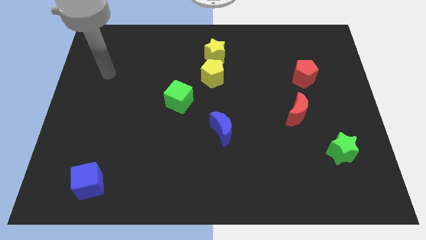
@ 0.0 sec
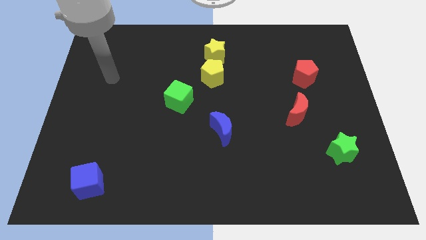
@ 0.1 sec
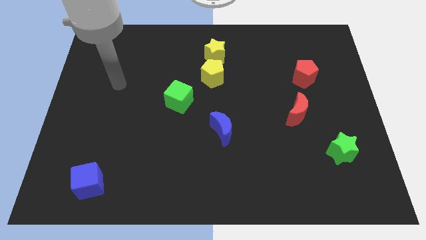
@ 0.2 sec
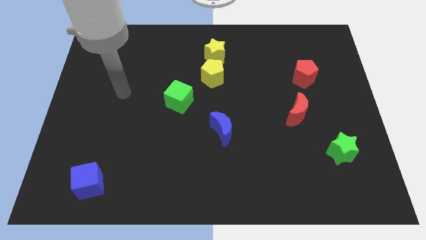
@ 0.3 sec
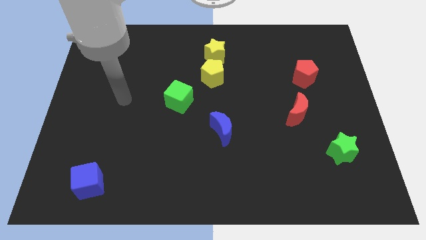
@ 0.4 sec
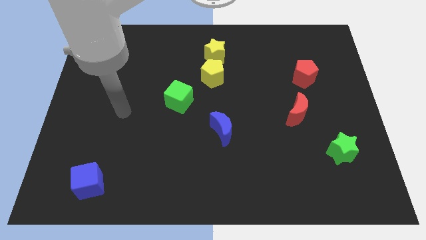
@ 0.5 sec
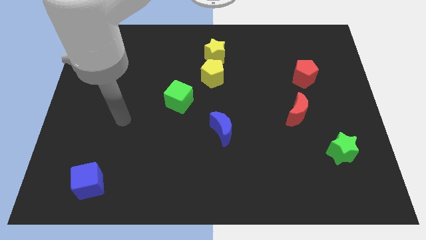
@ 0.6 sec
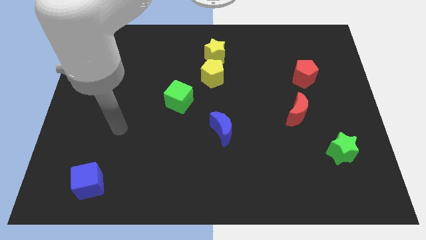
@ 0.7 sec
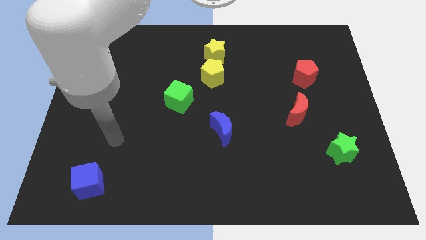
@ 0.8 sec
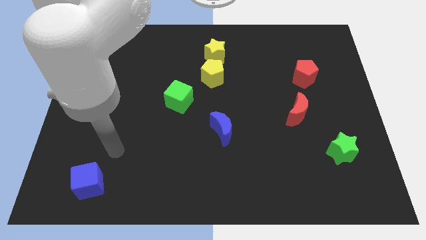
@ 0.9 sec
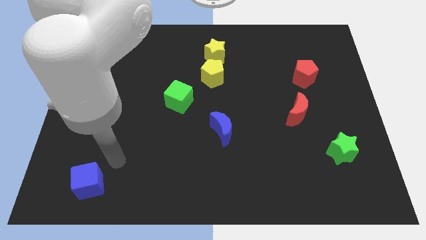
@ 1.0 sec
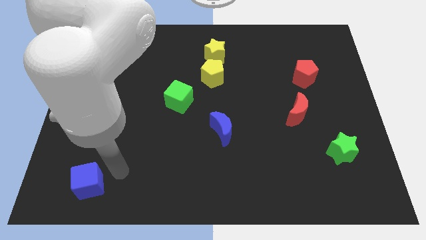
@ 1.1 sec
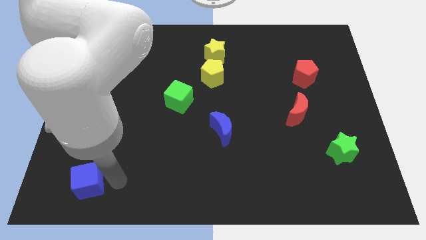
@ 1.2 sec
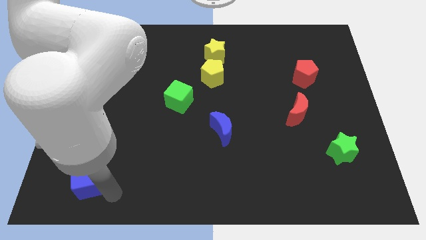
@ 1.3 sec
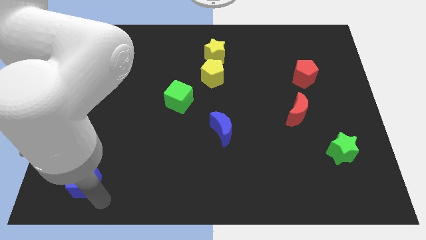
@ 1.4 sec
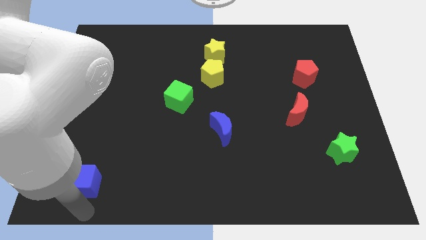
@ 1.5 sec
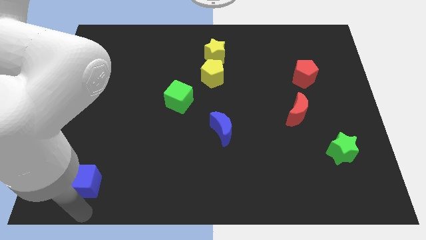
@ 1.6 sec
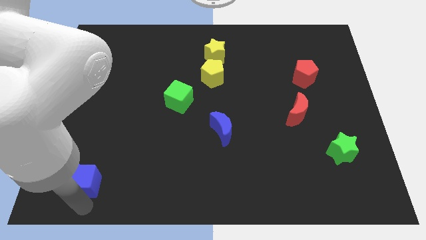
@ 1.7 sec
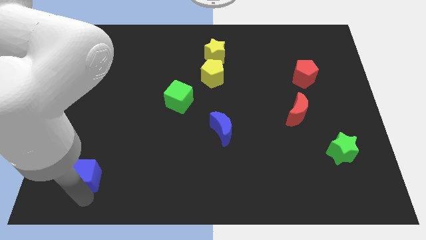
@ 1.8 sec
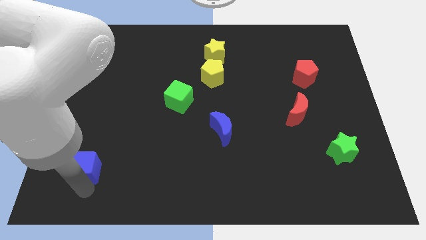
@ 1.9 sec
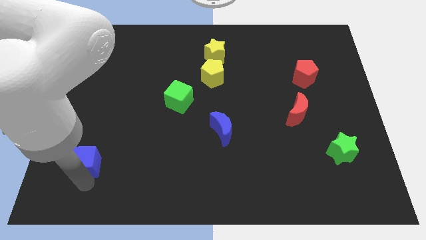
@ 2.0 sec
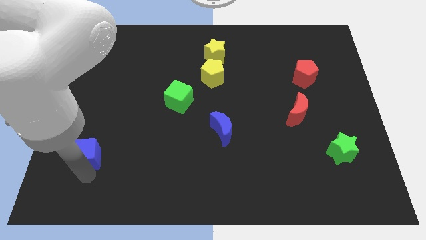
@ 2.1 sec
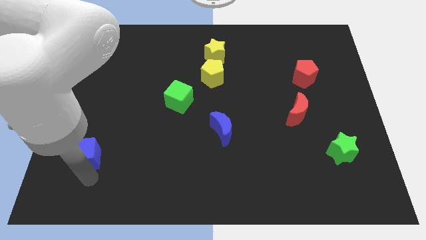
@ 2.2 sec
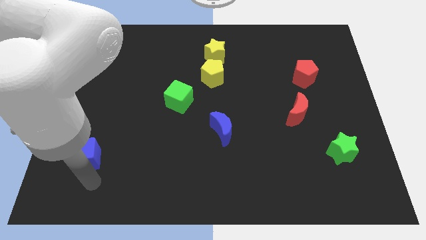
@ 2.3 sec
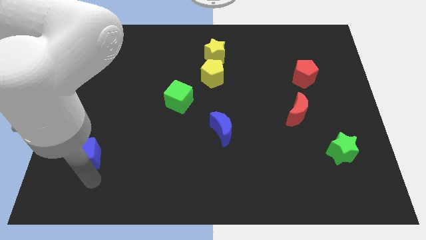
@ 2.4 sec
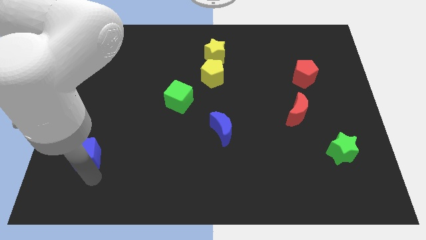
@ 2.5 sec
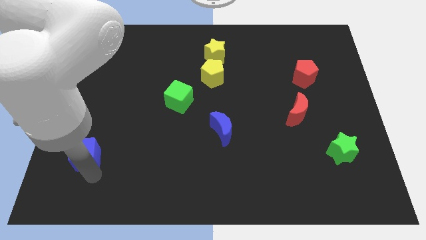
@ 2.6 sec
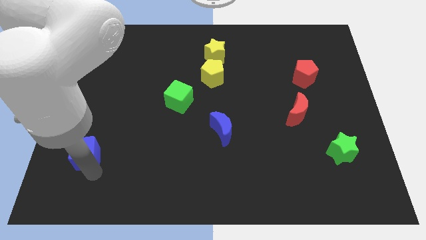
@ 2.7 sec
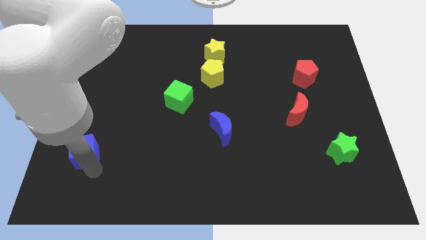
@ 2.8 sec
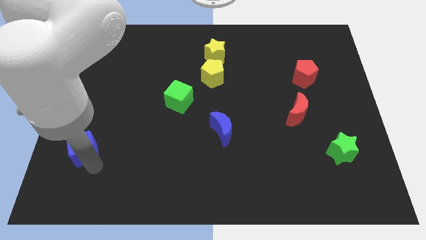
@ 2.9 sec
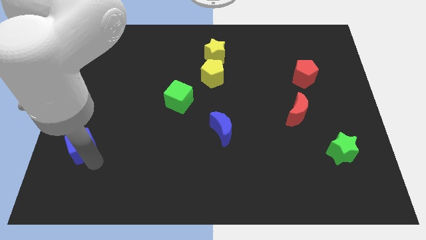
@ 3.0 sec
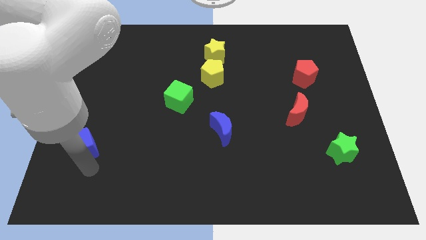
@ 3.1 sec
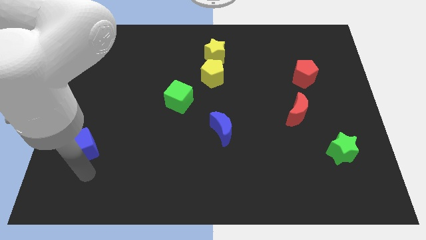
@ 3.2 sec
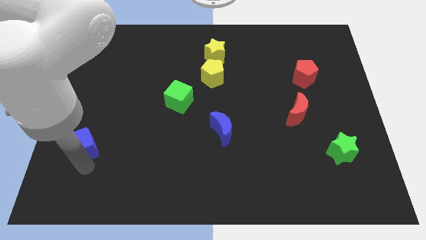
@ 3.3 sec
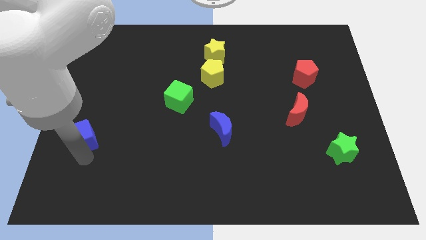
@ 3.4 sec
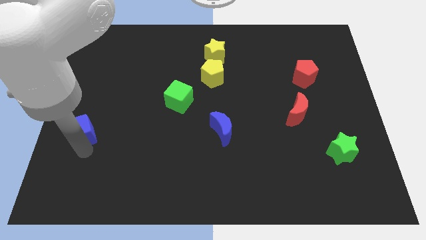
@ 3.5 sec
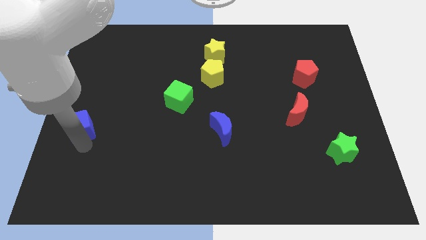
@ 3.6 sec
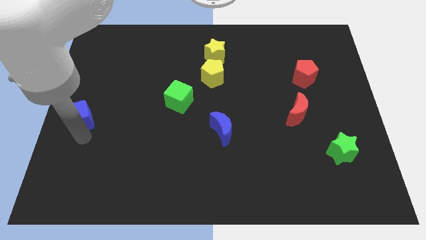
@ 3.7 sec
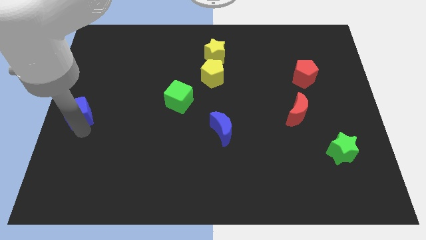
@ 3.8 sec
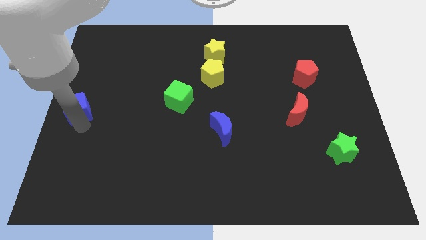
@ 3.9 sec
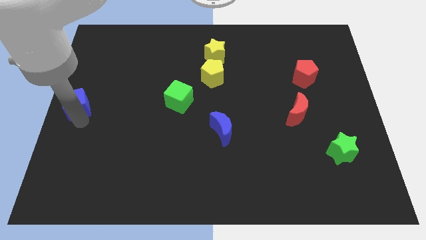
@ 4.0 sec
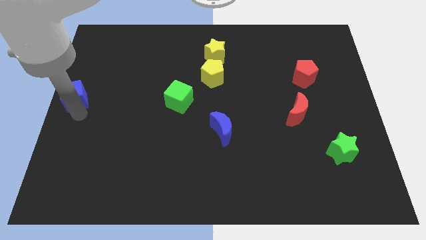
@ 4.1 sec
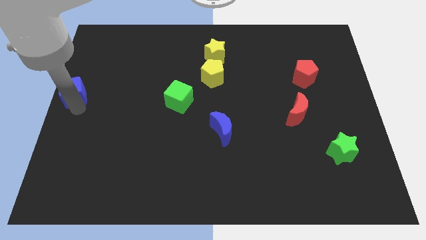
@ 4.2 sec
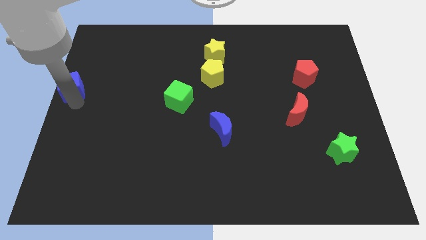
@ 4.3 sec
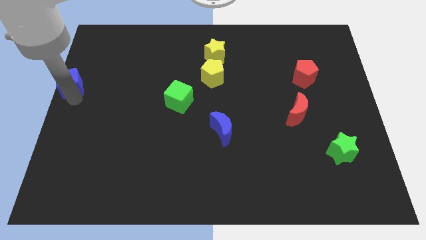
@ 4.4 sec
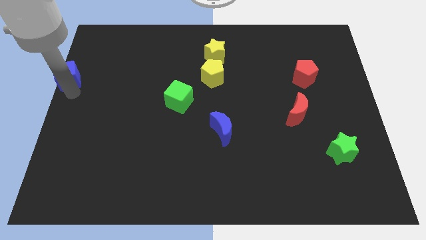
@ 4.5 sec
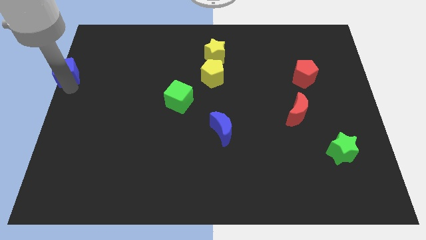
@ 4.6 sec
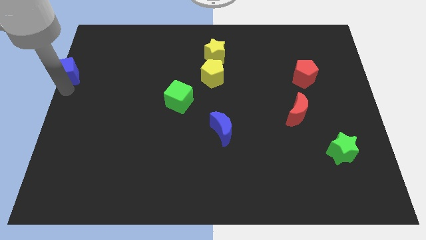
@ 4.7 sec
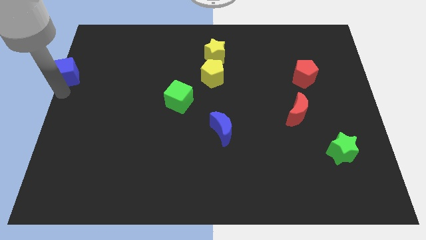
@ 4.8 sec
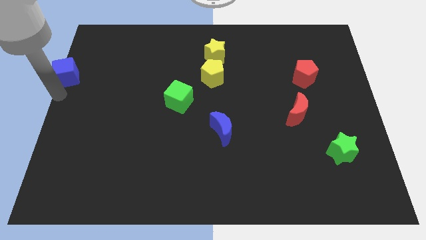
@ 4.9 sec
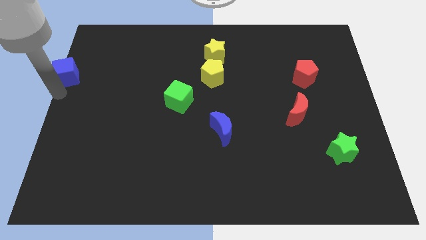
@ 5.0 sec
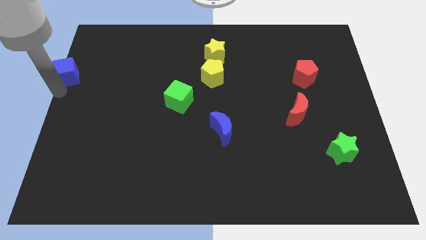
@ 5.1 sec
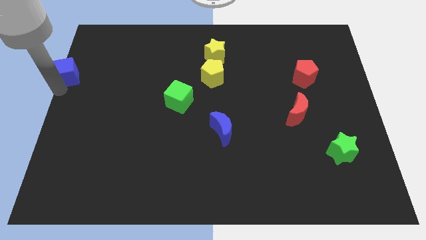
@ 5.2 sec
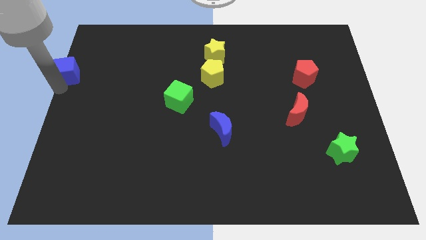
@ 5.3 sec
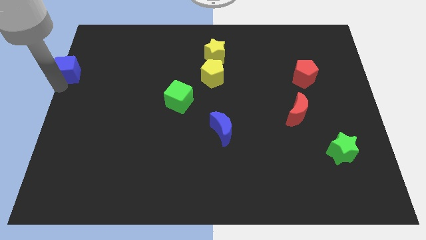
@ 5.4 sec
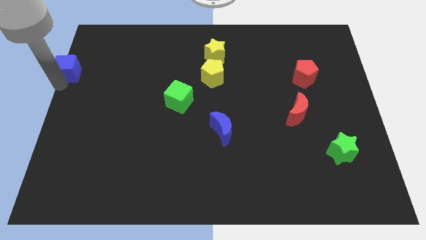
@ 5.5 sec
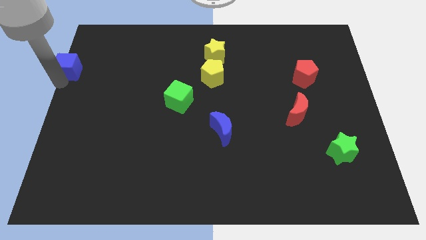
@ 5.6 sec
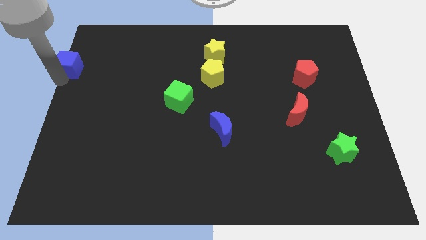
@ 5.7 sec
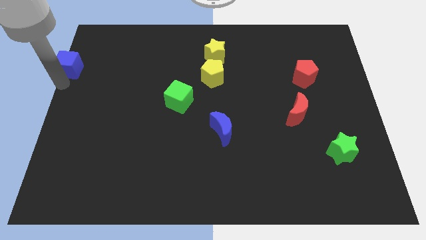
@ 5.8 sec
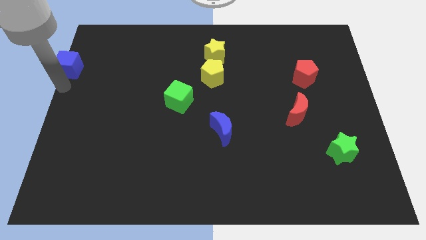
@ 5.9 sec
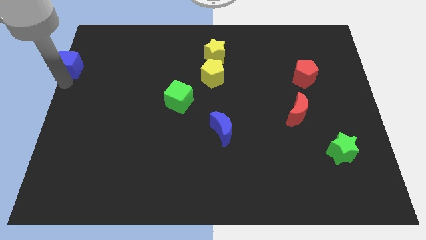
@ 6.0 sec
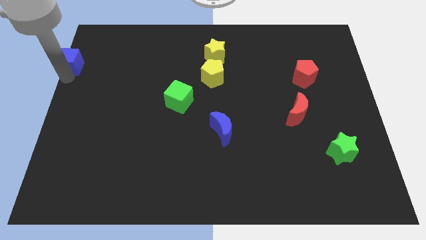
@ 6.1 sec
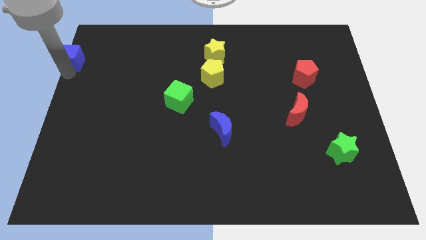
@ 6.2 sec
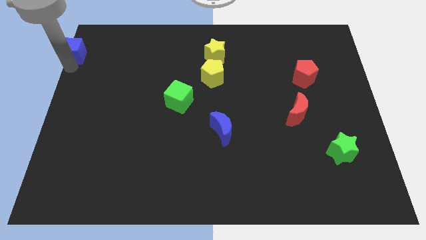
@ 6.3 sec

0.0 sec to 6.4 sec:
put the blue cube to the upper left corner

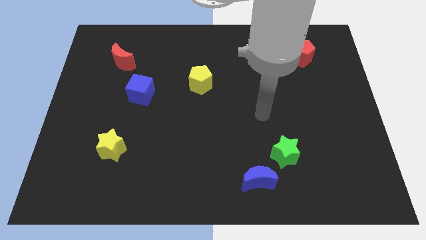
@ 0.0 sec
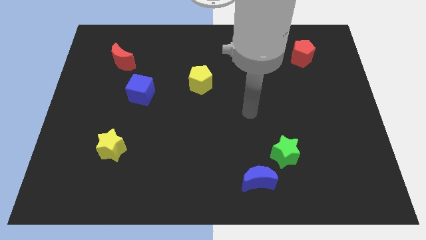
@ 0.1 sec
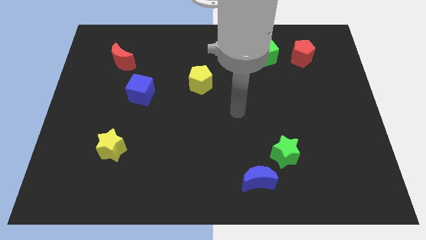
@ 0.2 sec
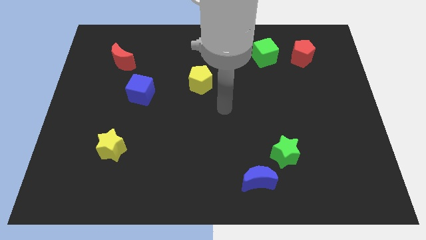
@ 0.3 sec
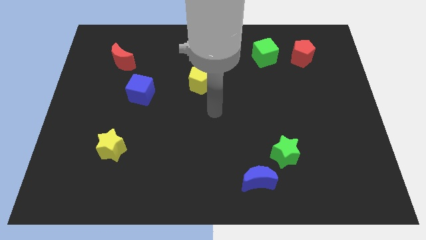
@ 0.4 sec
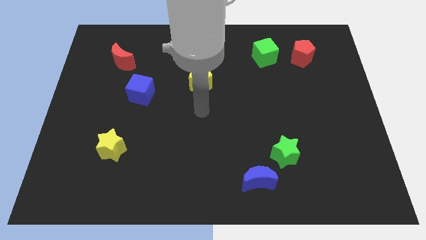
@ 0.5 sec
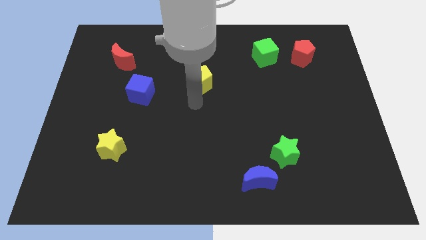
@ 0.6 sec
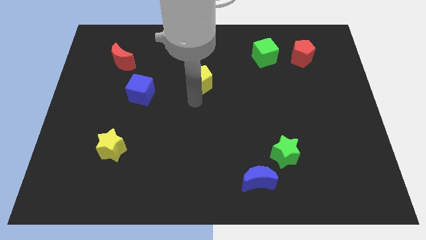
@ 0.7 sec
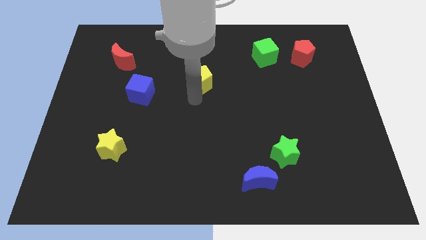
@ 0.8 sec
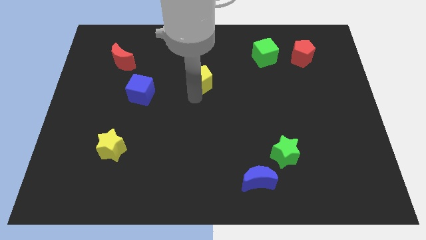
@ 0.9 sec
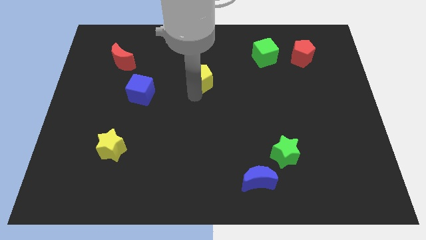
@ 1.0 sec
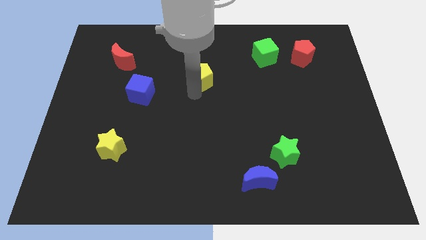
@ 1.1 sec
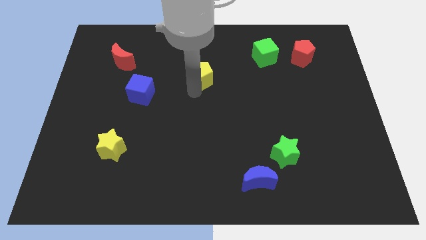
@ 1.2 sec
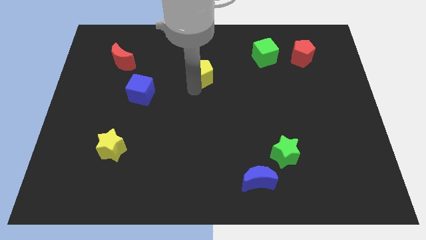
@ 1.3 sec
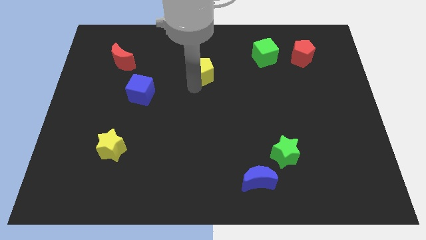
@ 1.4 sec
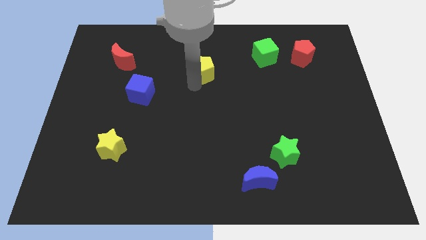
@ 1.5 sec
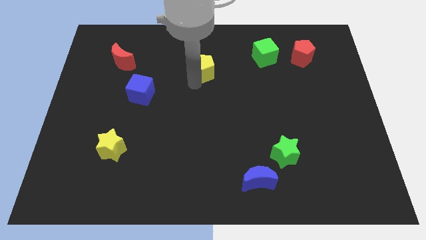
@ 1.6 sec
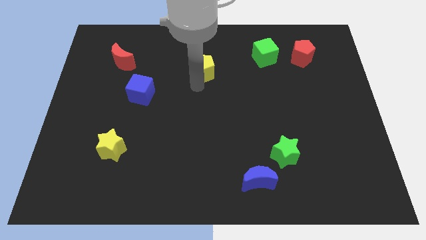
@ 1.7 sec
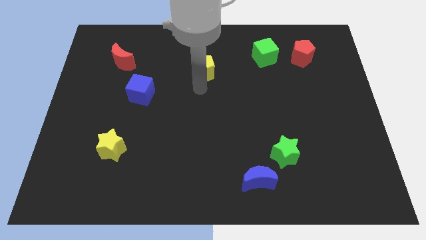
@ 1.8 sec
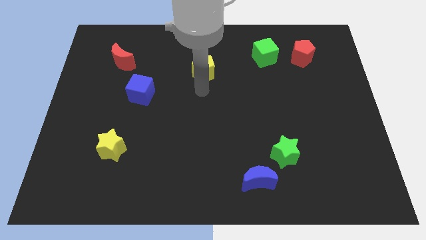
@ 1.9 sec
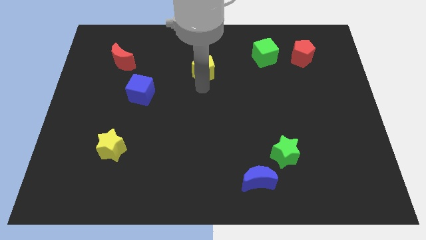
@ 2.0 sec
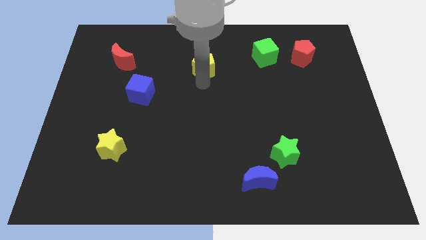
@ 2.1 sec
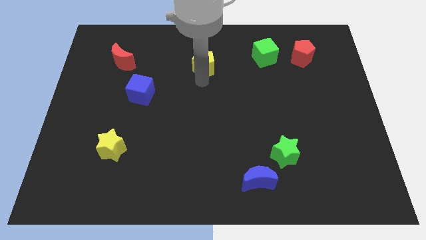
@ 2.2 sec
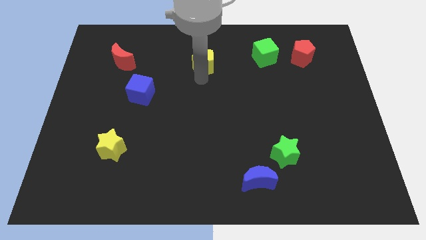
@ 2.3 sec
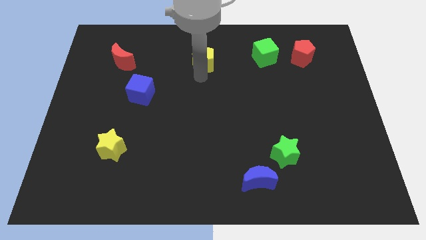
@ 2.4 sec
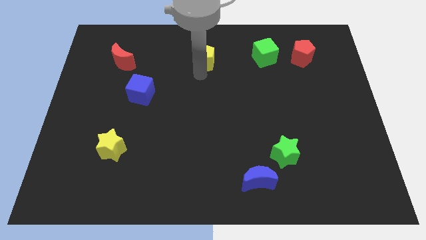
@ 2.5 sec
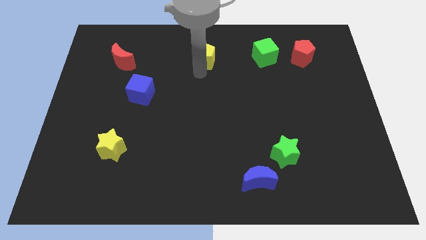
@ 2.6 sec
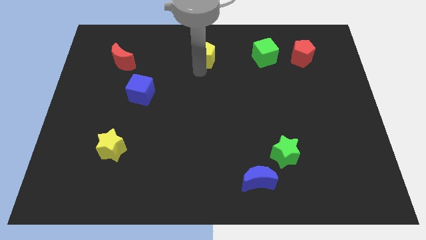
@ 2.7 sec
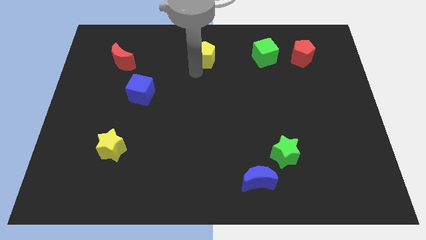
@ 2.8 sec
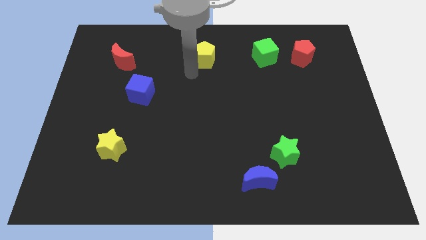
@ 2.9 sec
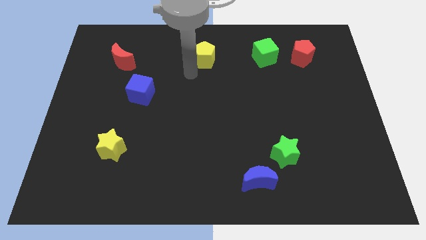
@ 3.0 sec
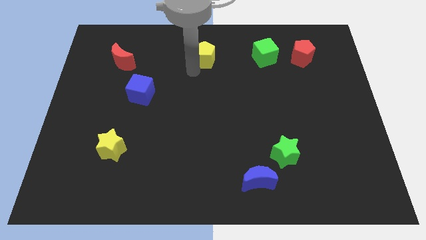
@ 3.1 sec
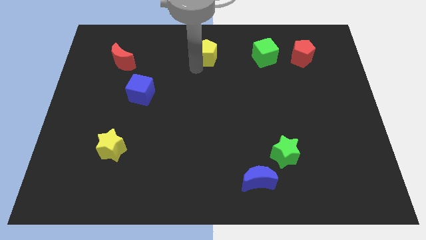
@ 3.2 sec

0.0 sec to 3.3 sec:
slide the yellow pentagon to the top
